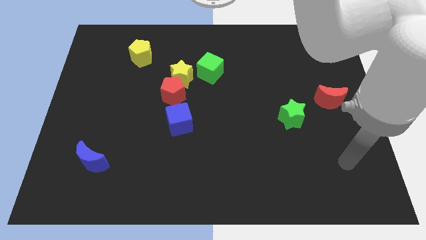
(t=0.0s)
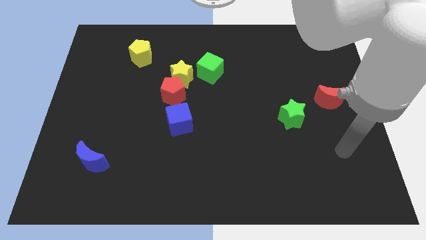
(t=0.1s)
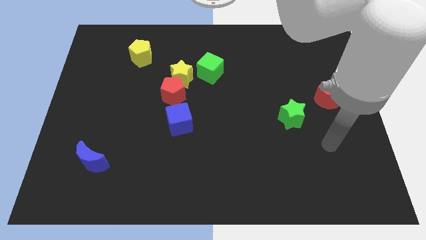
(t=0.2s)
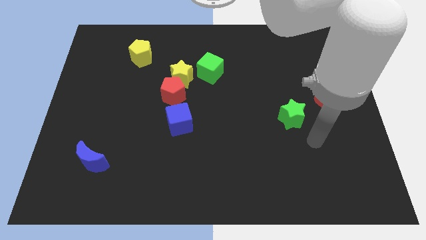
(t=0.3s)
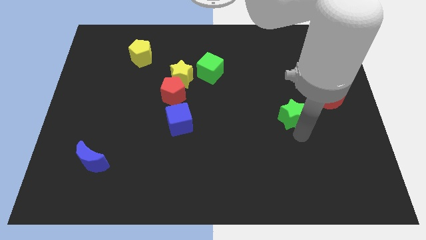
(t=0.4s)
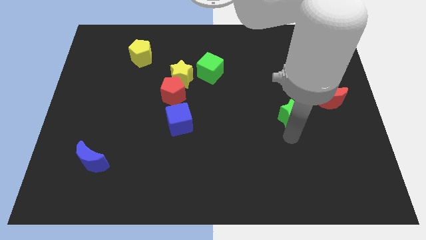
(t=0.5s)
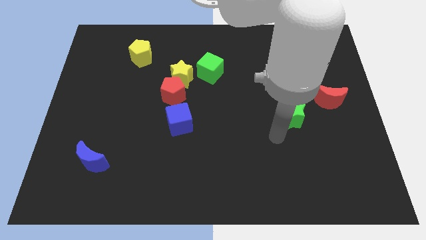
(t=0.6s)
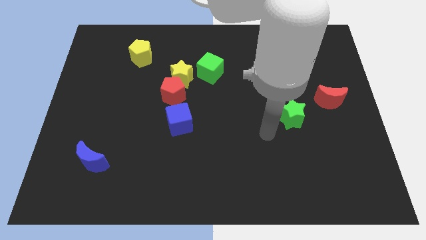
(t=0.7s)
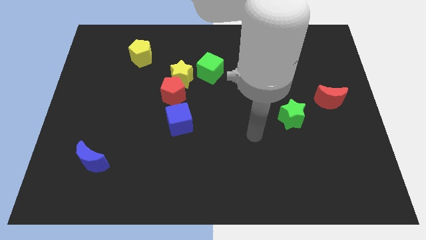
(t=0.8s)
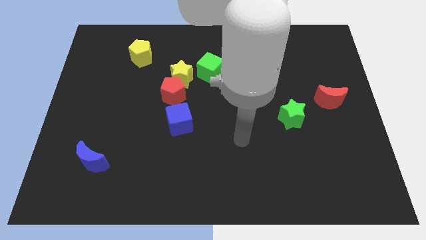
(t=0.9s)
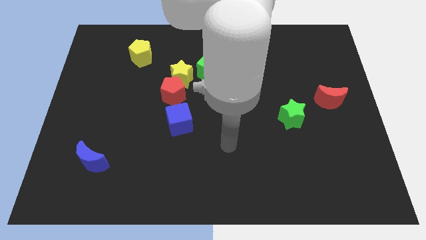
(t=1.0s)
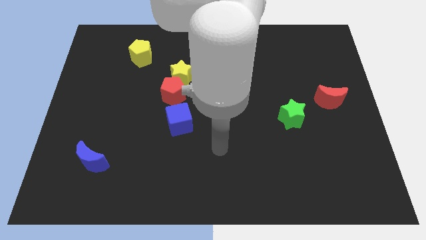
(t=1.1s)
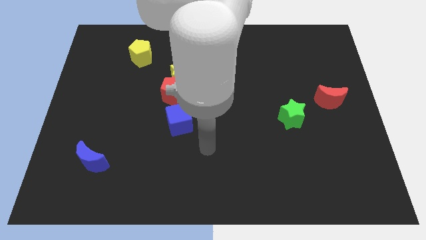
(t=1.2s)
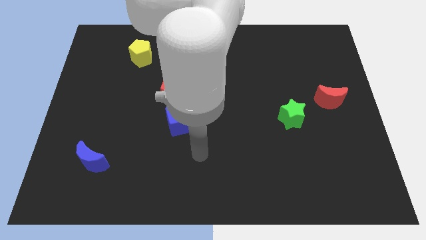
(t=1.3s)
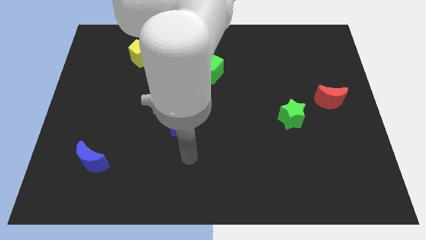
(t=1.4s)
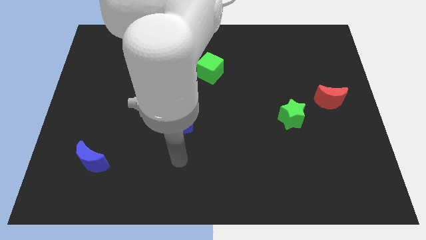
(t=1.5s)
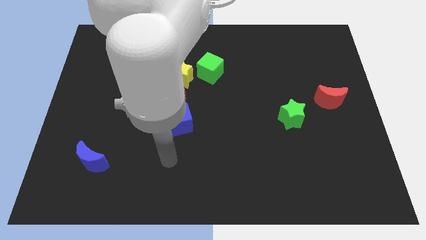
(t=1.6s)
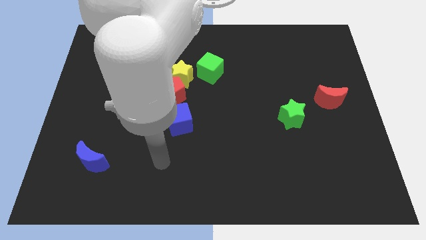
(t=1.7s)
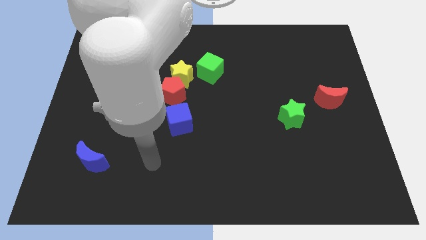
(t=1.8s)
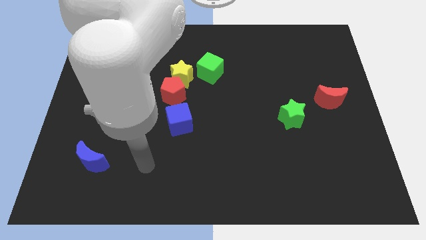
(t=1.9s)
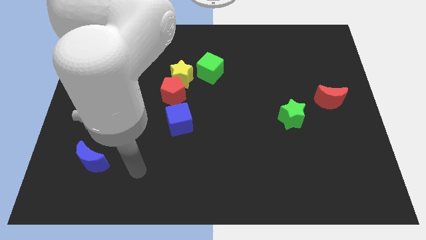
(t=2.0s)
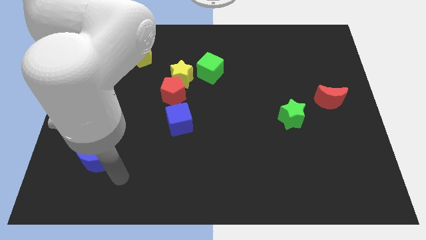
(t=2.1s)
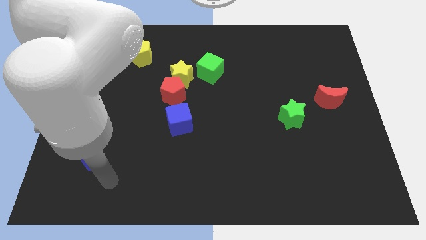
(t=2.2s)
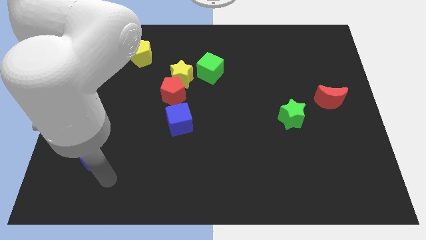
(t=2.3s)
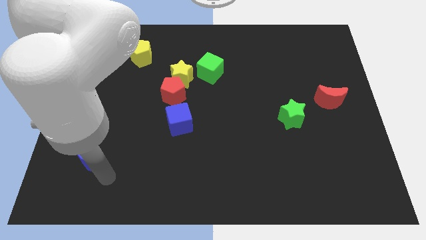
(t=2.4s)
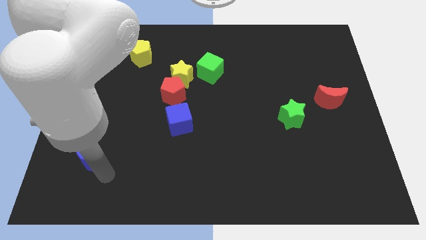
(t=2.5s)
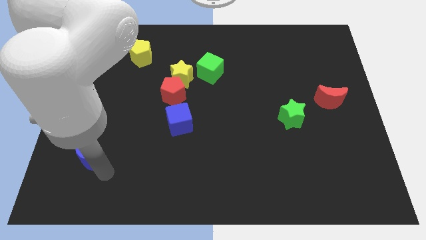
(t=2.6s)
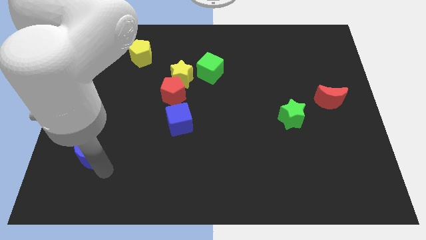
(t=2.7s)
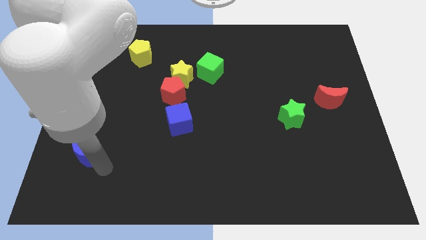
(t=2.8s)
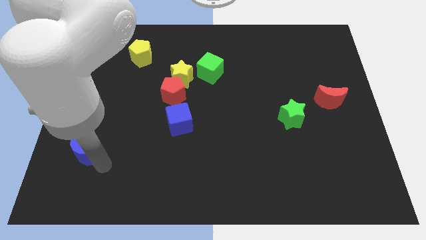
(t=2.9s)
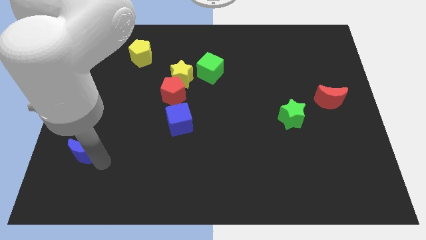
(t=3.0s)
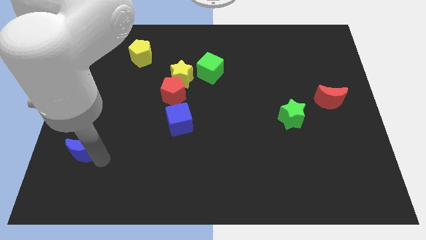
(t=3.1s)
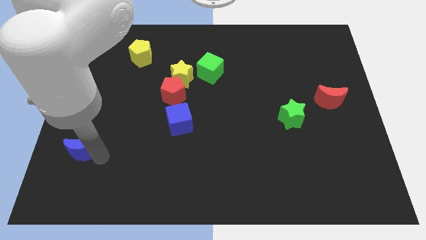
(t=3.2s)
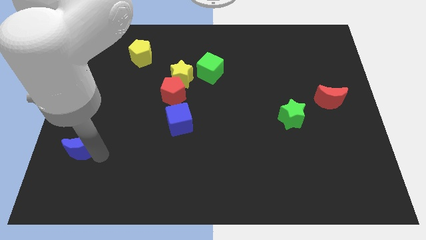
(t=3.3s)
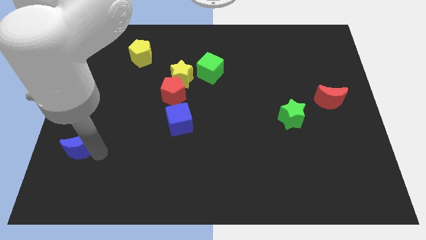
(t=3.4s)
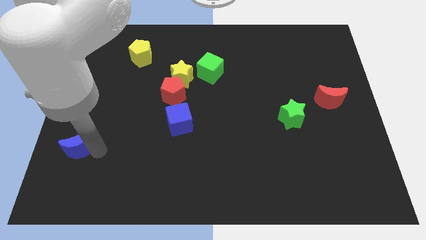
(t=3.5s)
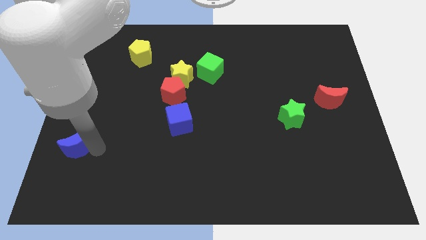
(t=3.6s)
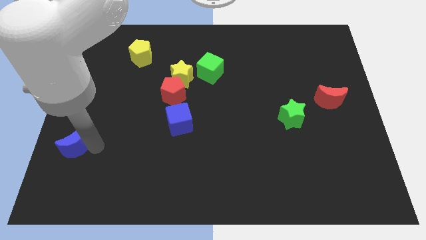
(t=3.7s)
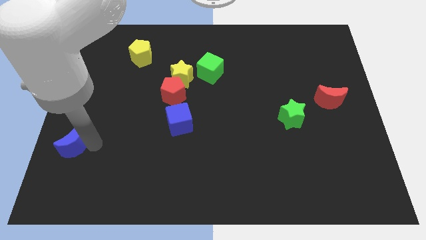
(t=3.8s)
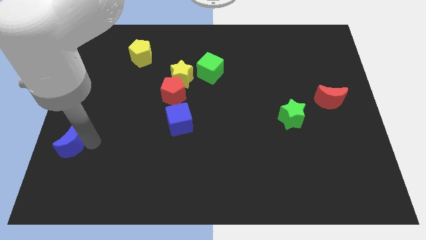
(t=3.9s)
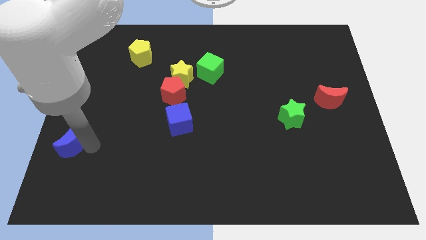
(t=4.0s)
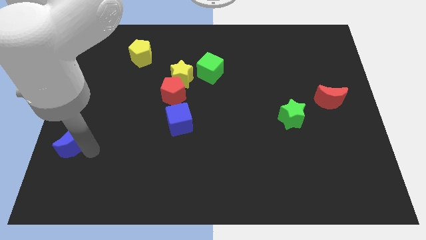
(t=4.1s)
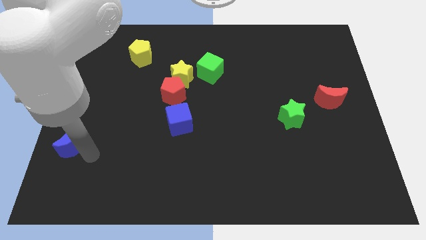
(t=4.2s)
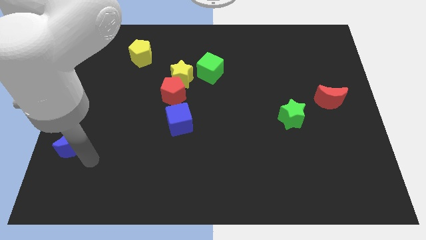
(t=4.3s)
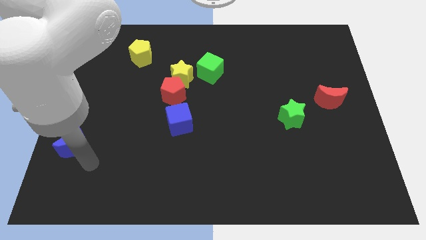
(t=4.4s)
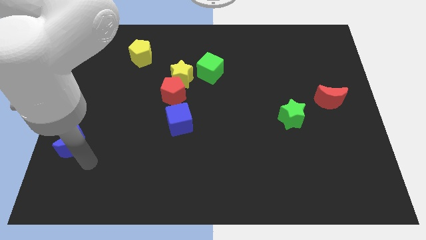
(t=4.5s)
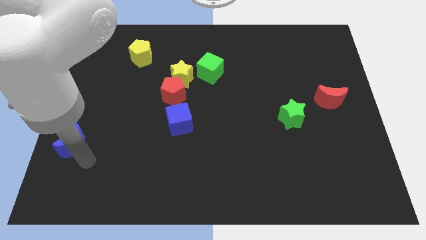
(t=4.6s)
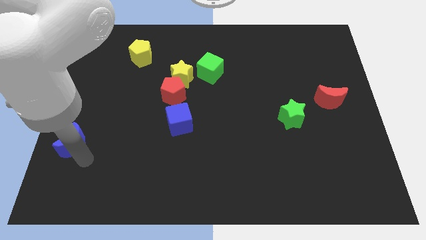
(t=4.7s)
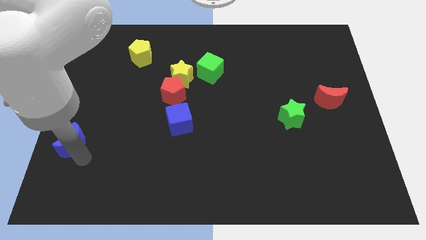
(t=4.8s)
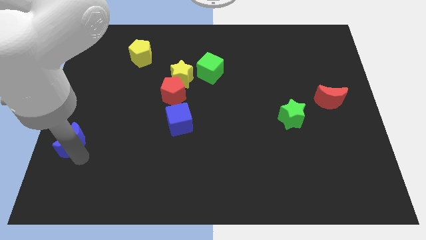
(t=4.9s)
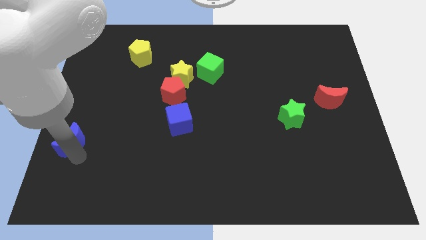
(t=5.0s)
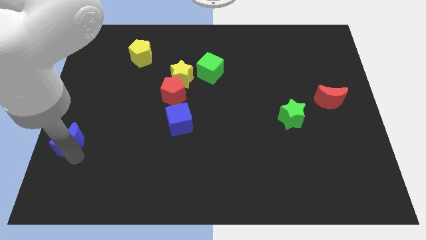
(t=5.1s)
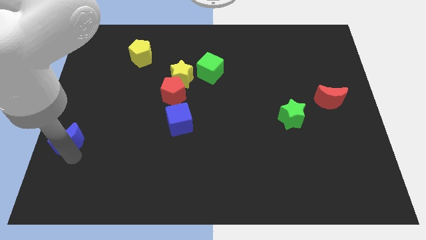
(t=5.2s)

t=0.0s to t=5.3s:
move the blue moon to the center left

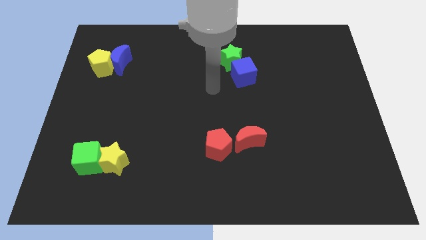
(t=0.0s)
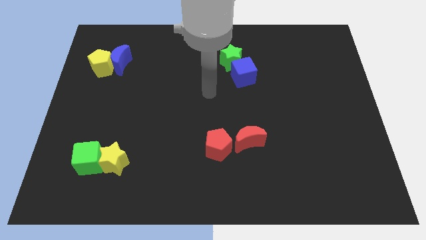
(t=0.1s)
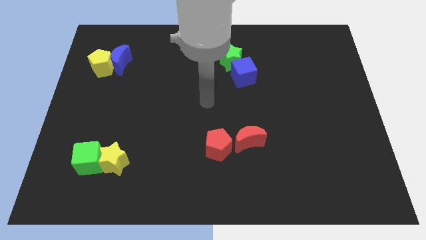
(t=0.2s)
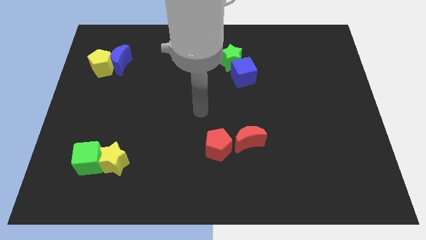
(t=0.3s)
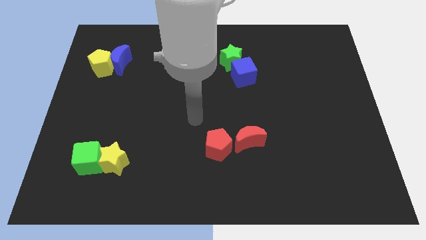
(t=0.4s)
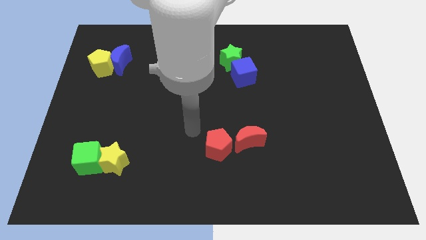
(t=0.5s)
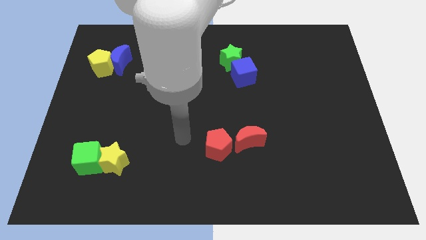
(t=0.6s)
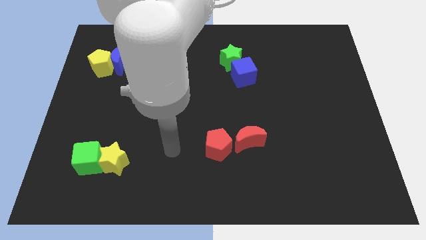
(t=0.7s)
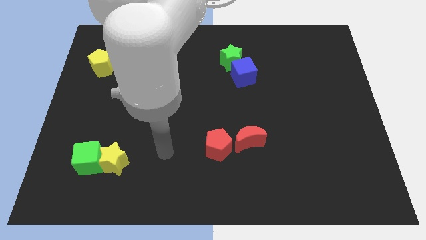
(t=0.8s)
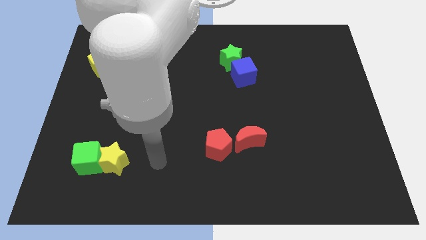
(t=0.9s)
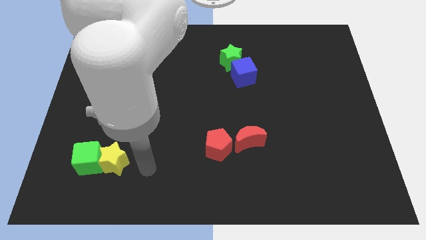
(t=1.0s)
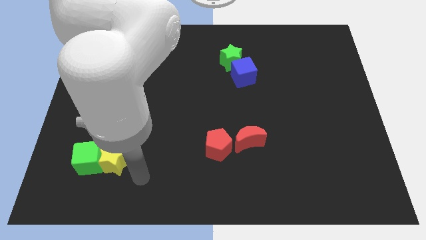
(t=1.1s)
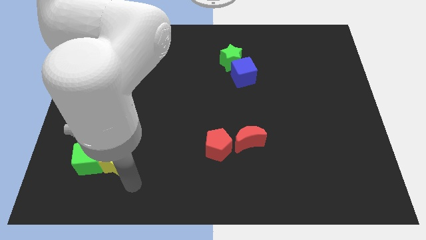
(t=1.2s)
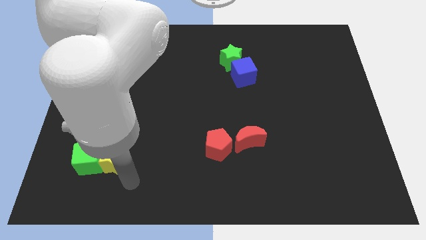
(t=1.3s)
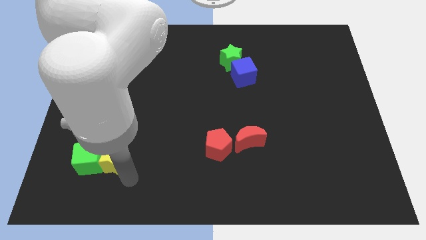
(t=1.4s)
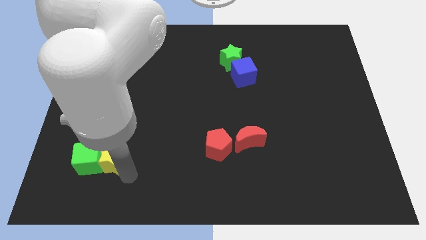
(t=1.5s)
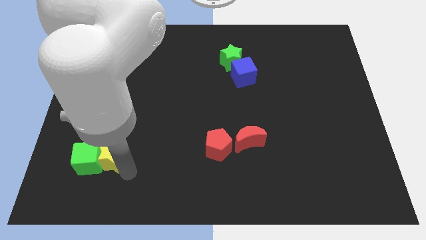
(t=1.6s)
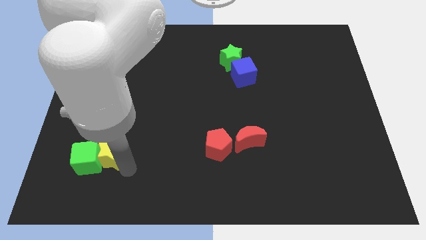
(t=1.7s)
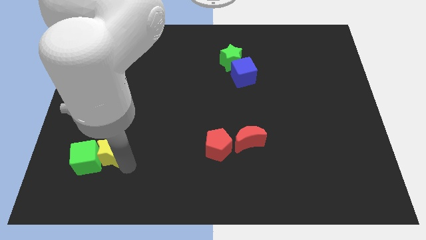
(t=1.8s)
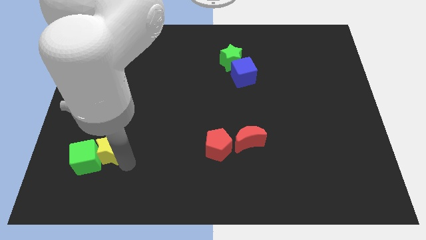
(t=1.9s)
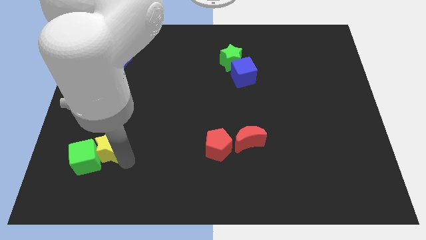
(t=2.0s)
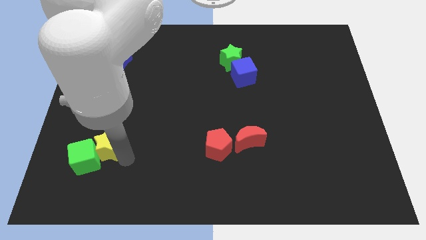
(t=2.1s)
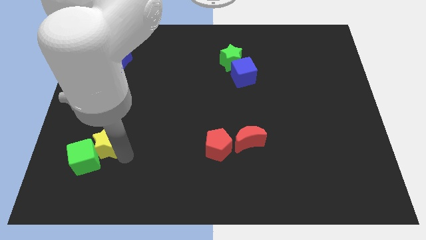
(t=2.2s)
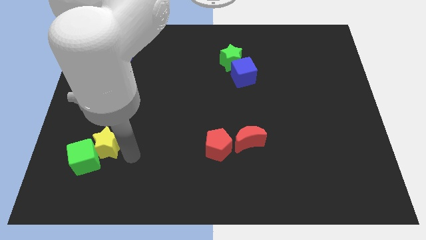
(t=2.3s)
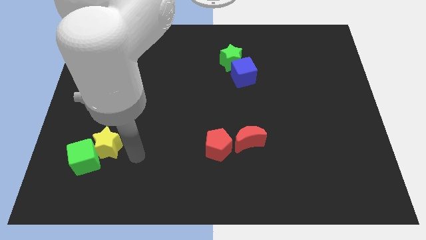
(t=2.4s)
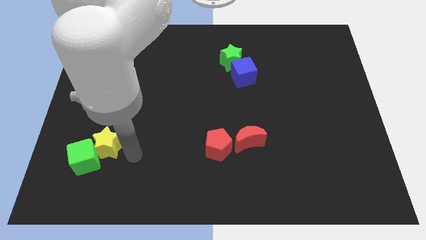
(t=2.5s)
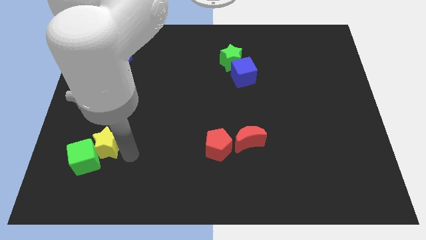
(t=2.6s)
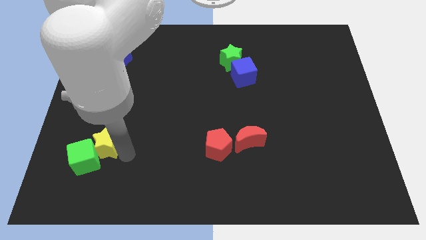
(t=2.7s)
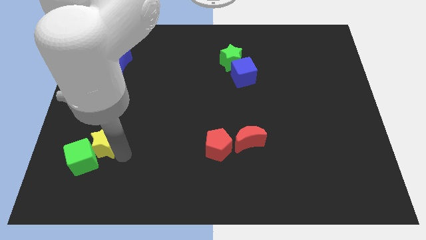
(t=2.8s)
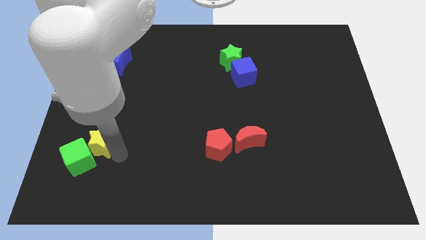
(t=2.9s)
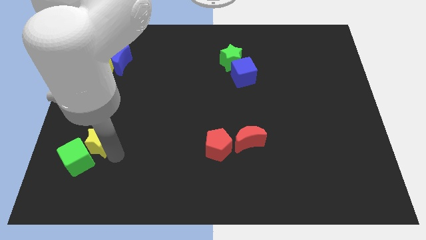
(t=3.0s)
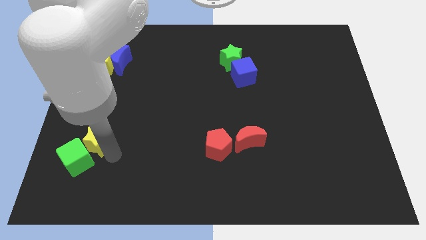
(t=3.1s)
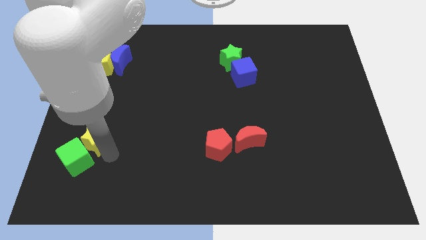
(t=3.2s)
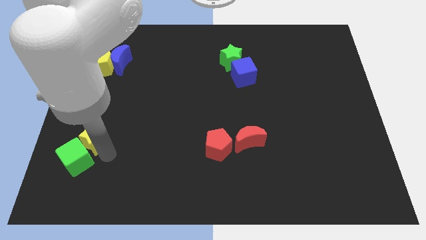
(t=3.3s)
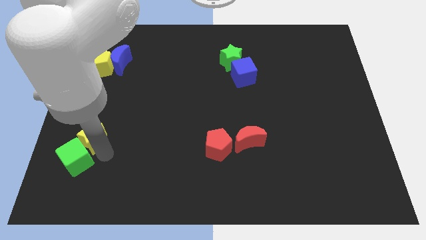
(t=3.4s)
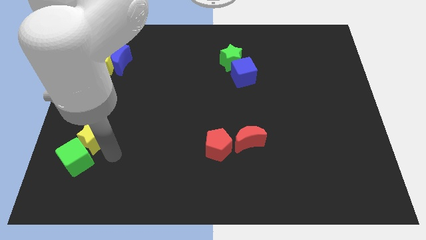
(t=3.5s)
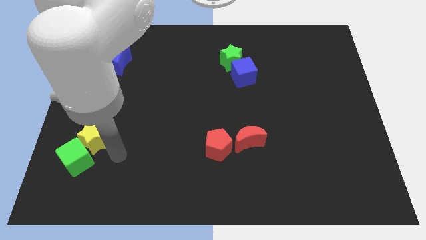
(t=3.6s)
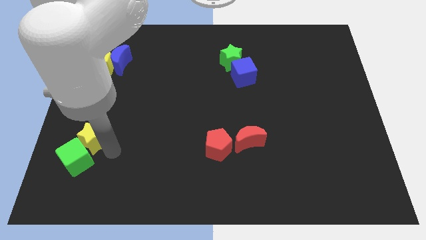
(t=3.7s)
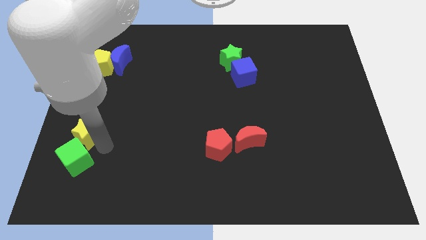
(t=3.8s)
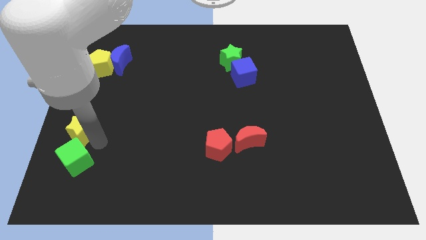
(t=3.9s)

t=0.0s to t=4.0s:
slide the yellow star to the center left
